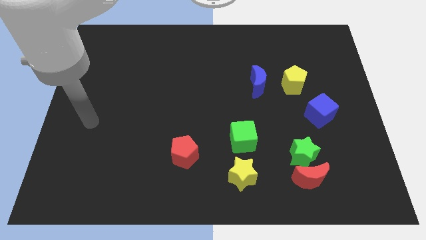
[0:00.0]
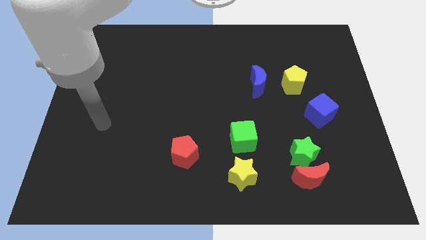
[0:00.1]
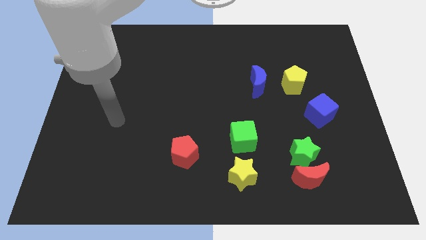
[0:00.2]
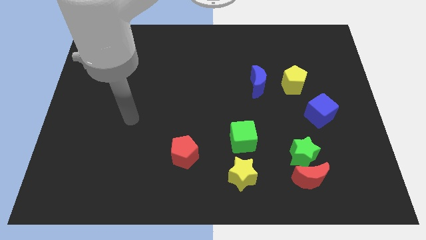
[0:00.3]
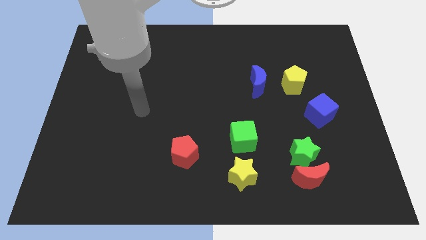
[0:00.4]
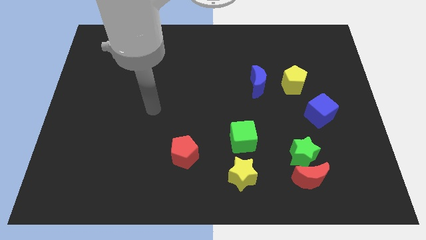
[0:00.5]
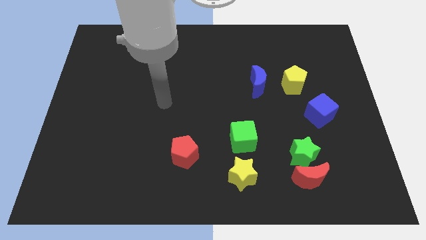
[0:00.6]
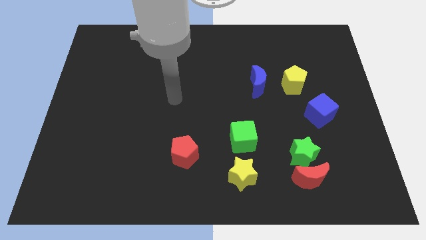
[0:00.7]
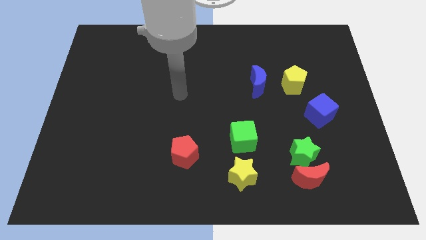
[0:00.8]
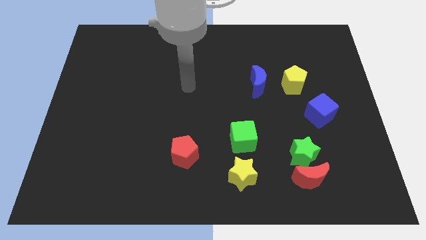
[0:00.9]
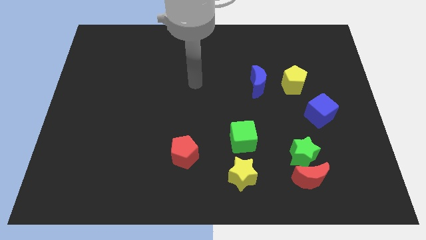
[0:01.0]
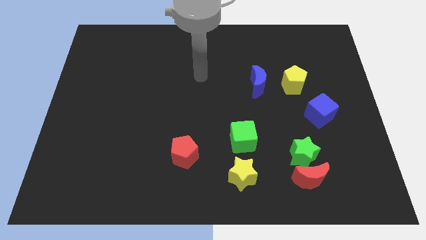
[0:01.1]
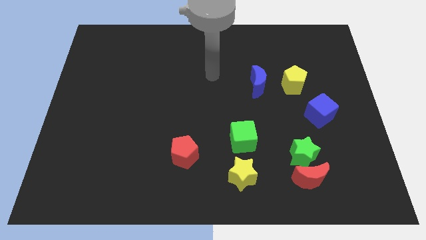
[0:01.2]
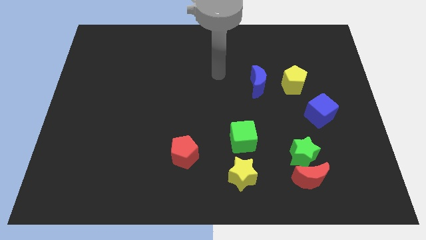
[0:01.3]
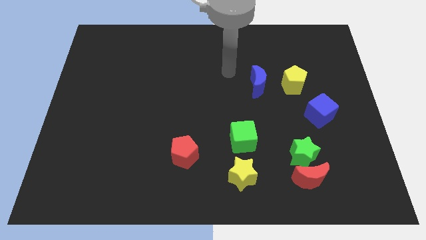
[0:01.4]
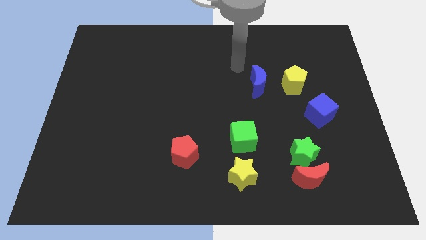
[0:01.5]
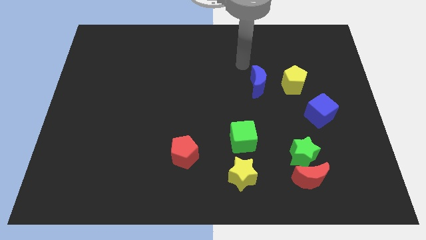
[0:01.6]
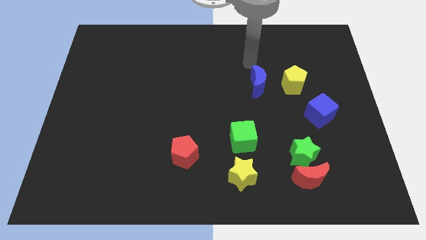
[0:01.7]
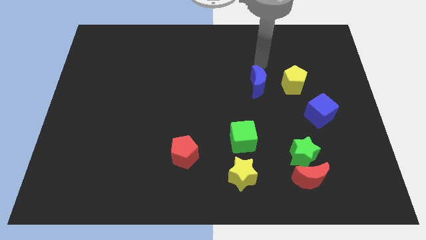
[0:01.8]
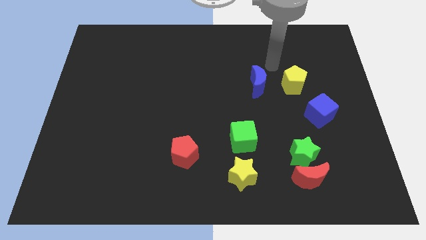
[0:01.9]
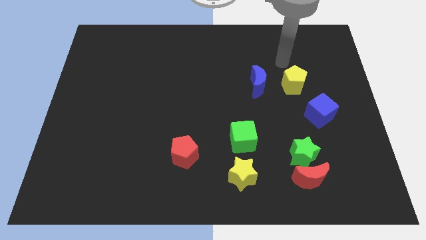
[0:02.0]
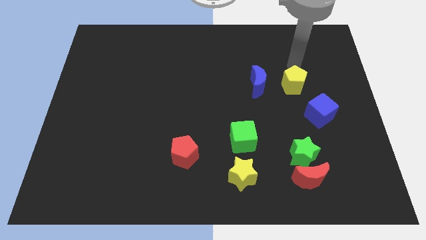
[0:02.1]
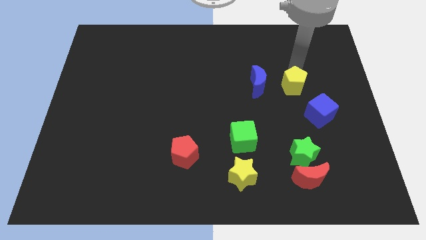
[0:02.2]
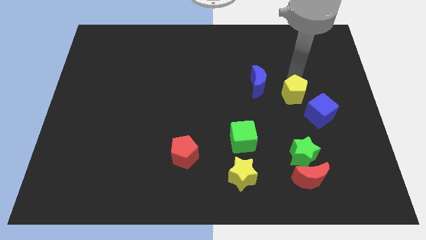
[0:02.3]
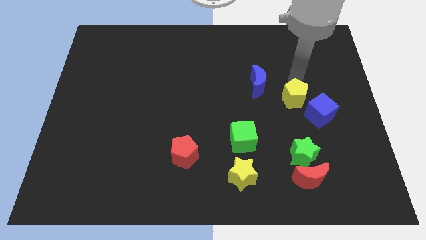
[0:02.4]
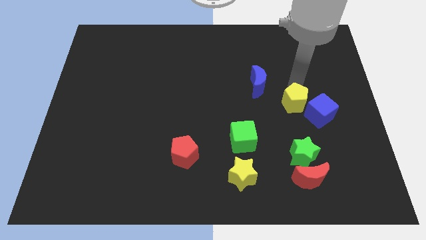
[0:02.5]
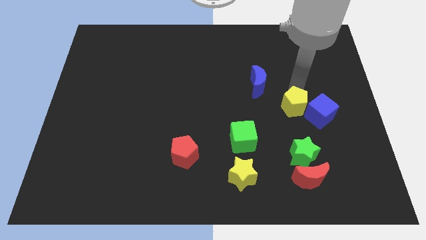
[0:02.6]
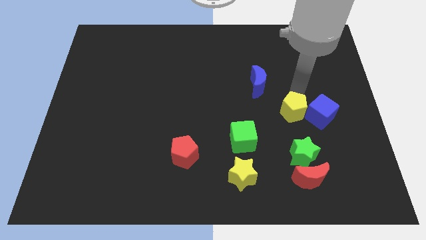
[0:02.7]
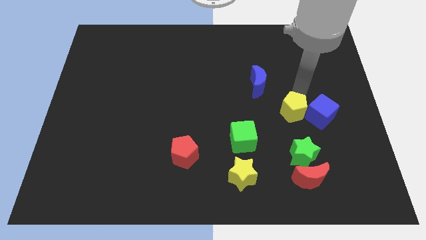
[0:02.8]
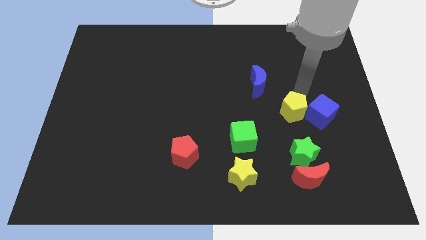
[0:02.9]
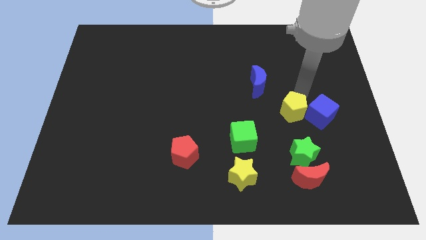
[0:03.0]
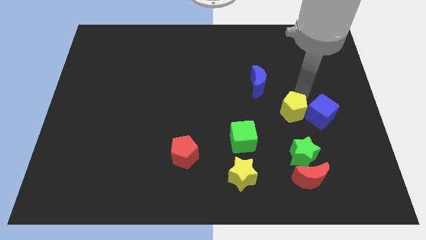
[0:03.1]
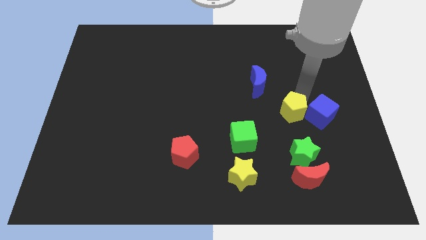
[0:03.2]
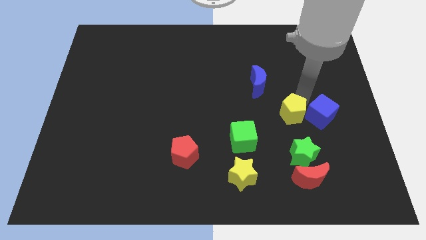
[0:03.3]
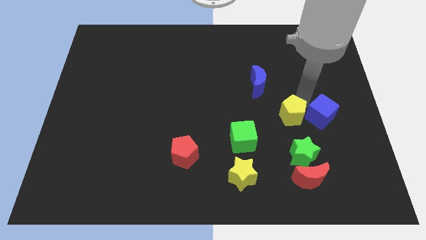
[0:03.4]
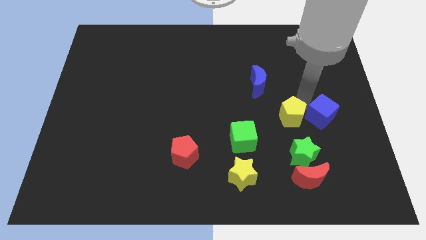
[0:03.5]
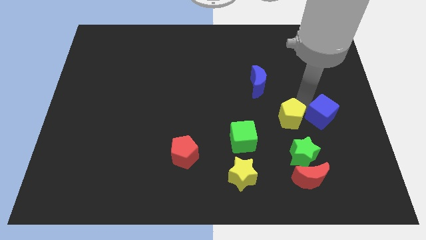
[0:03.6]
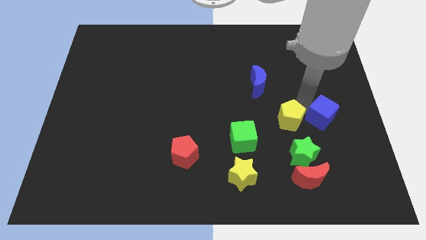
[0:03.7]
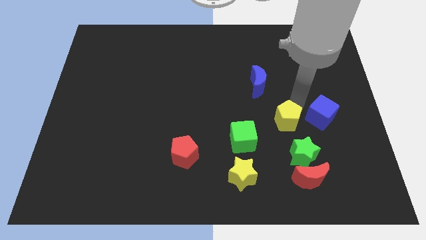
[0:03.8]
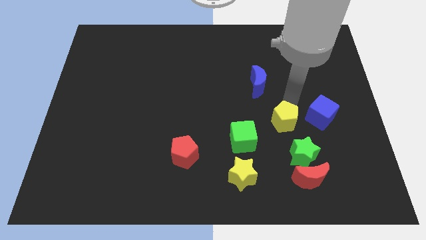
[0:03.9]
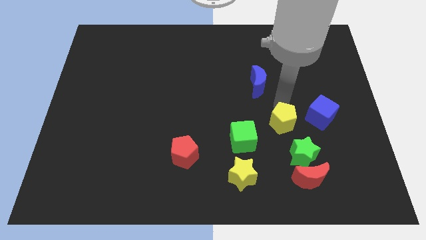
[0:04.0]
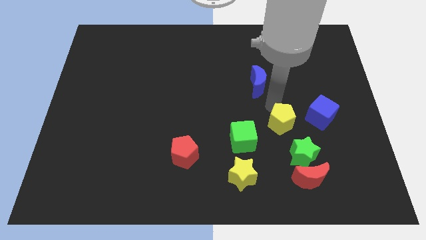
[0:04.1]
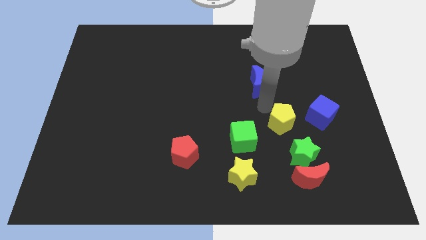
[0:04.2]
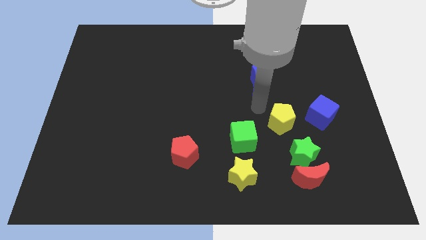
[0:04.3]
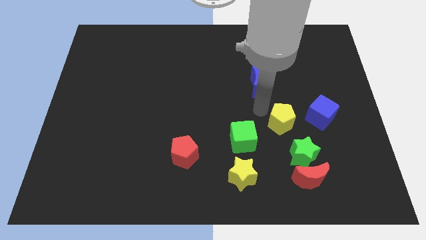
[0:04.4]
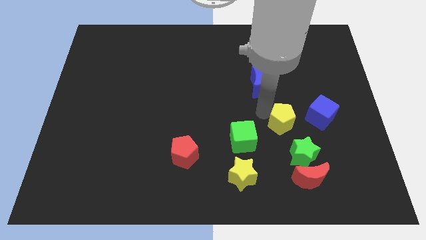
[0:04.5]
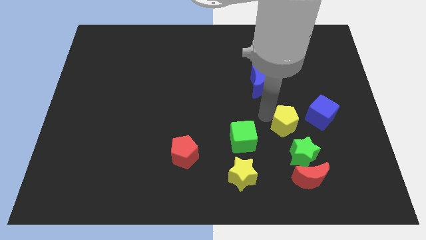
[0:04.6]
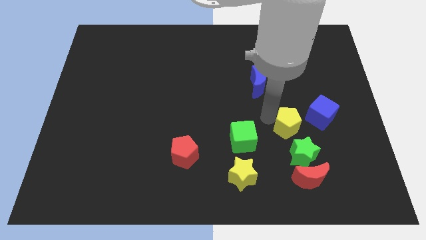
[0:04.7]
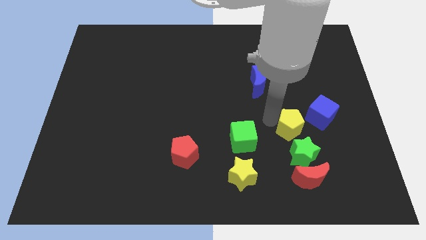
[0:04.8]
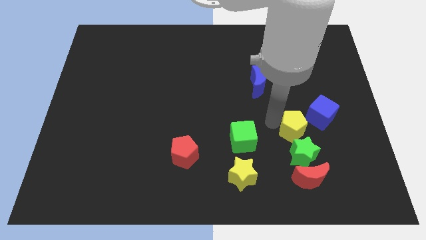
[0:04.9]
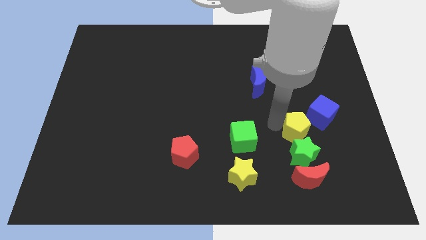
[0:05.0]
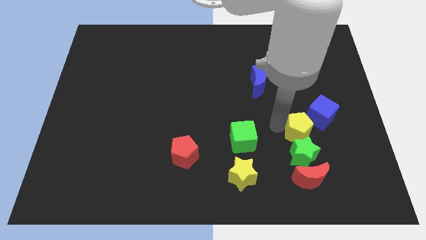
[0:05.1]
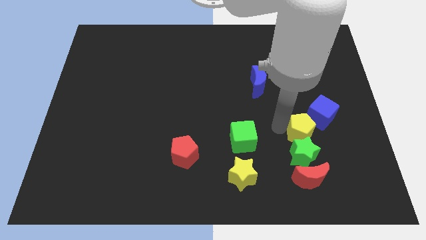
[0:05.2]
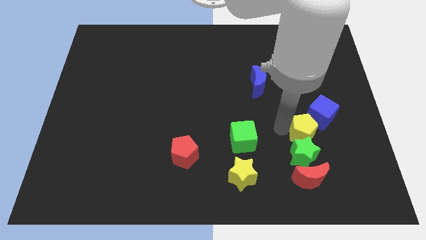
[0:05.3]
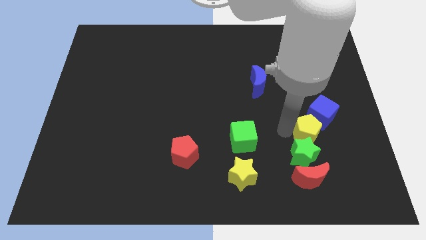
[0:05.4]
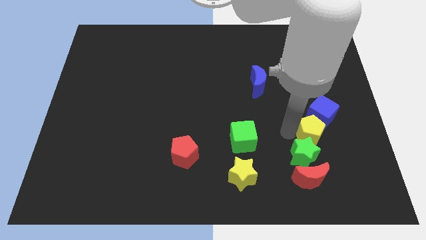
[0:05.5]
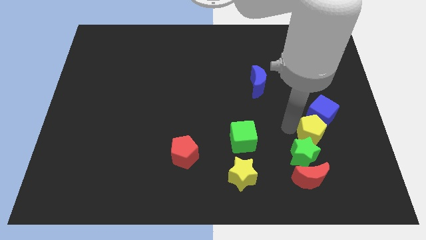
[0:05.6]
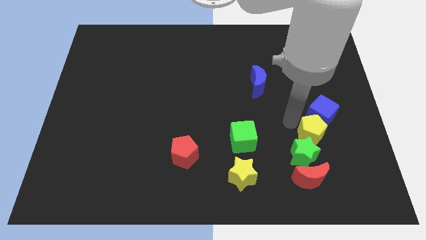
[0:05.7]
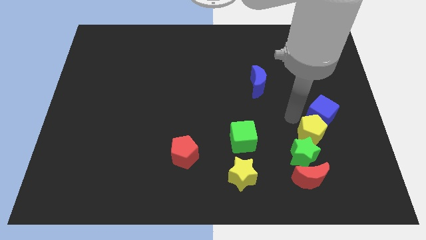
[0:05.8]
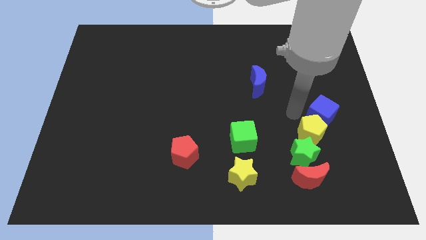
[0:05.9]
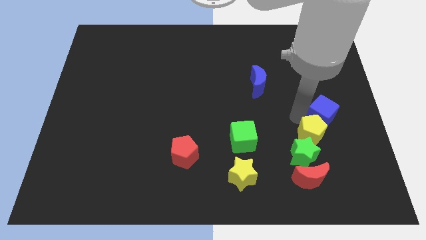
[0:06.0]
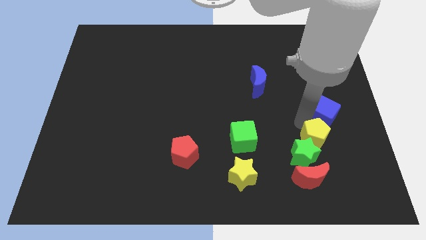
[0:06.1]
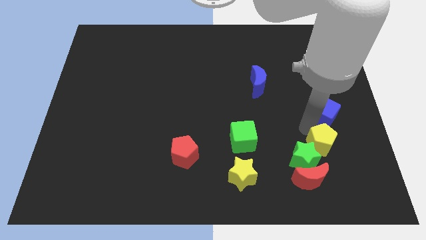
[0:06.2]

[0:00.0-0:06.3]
push the yellow pentagon diagonally up and to the right of the red moon
